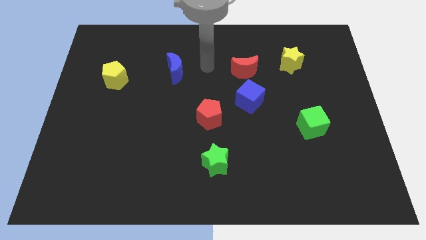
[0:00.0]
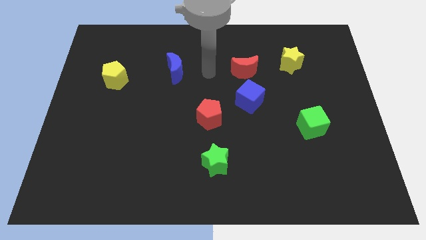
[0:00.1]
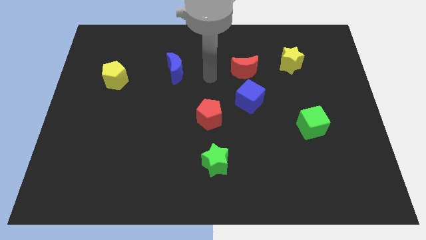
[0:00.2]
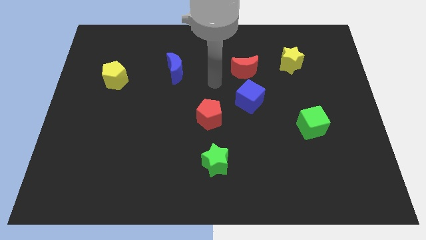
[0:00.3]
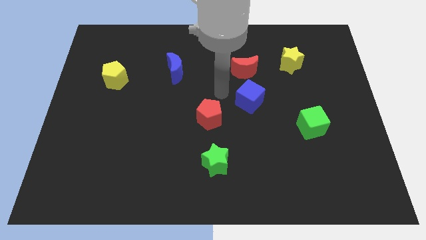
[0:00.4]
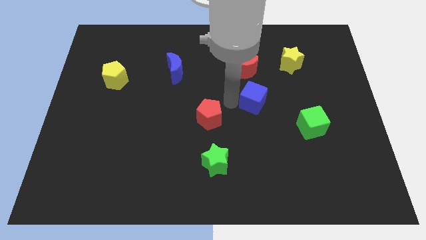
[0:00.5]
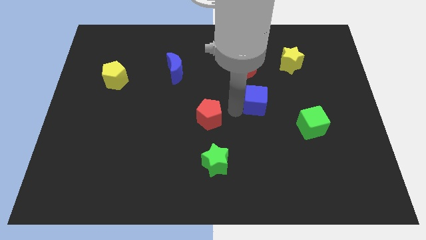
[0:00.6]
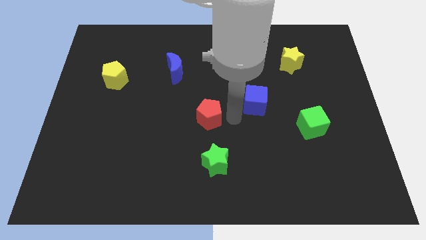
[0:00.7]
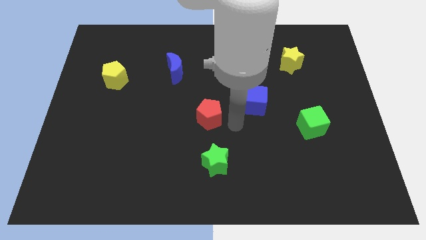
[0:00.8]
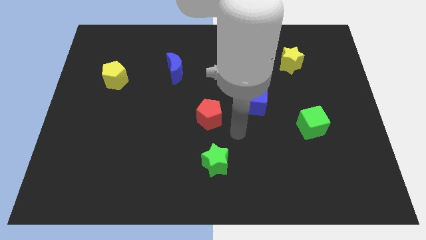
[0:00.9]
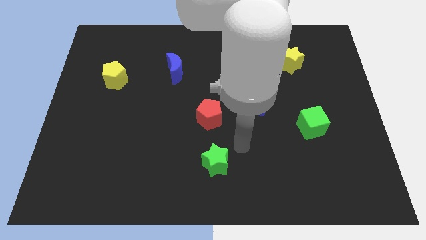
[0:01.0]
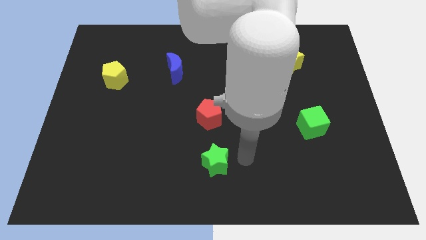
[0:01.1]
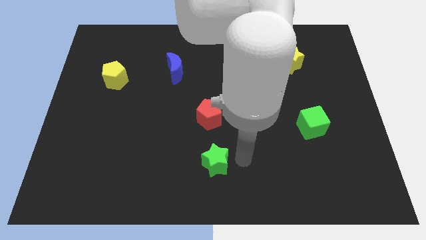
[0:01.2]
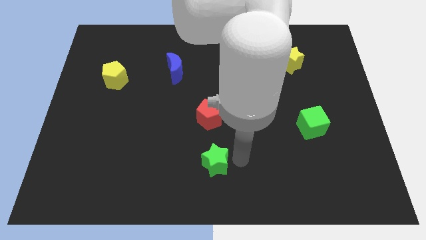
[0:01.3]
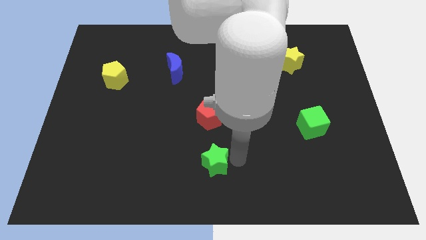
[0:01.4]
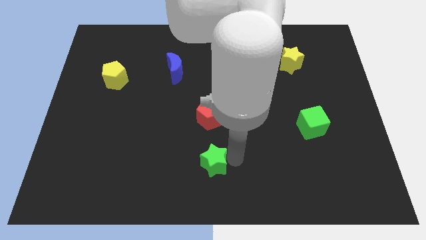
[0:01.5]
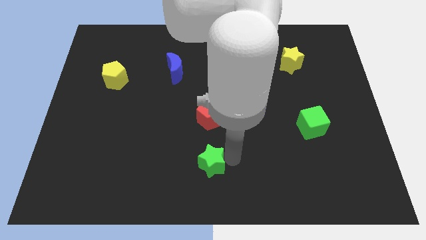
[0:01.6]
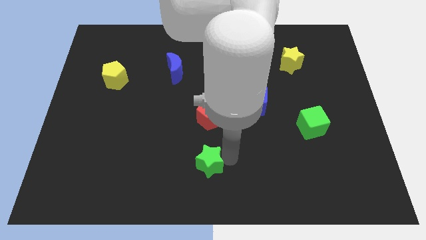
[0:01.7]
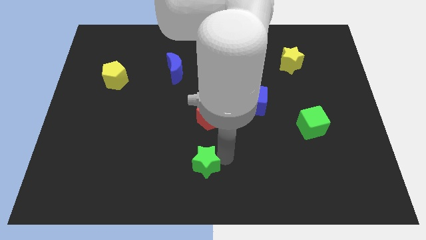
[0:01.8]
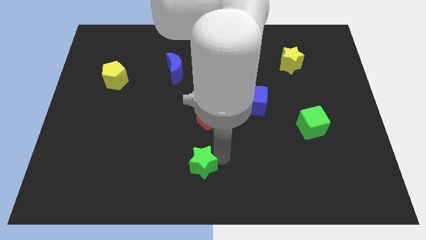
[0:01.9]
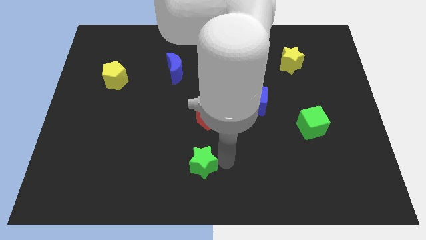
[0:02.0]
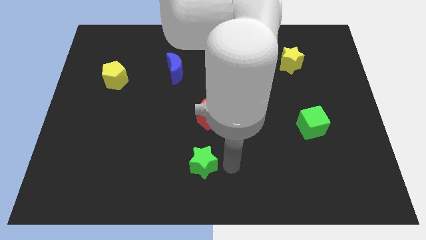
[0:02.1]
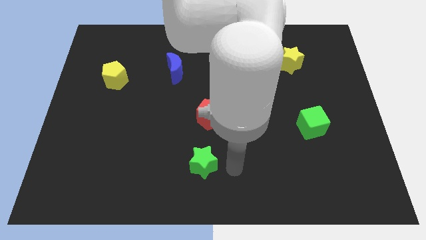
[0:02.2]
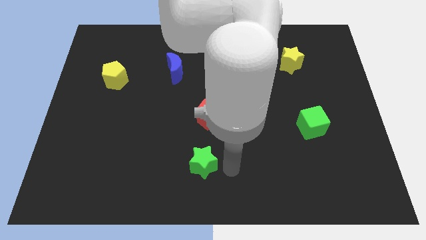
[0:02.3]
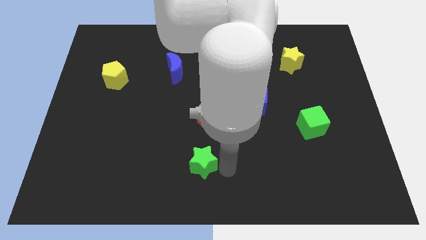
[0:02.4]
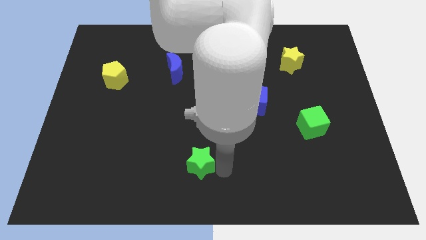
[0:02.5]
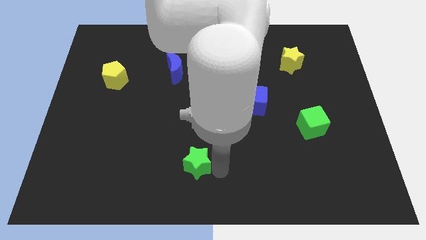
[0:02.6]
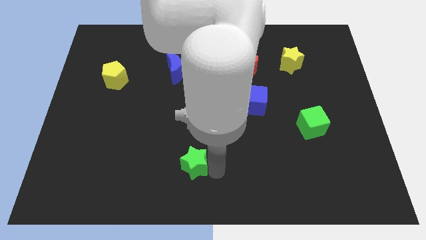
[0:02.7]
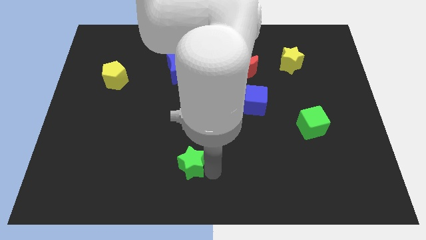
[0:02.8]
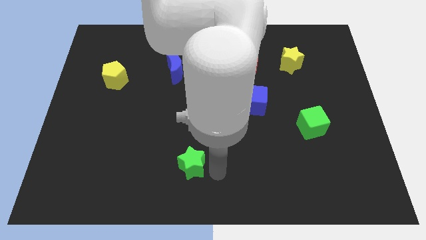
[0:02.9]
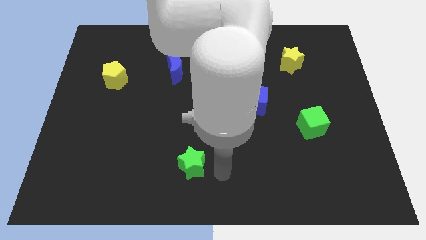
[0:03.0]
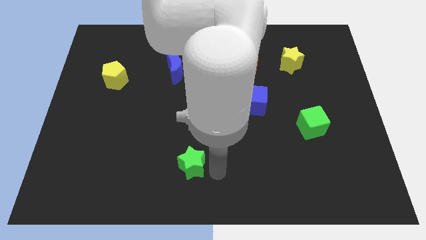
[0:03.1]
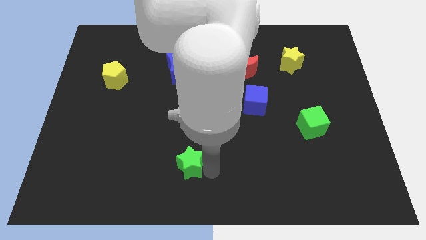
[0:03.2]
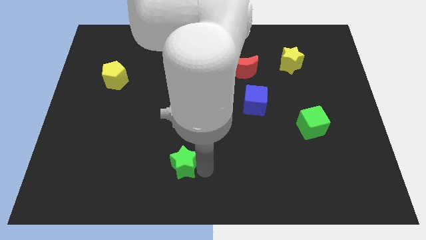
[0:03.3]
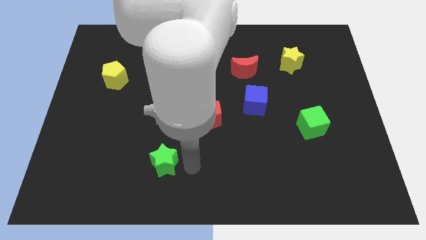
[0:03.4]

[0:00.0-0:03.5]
push the green star to the left somewhat

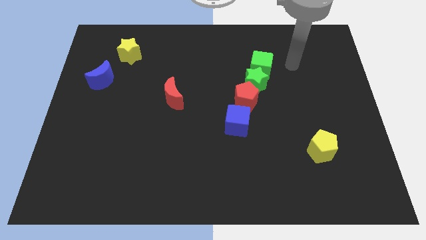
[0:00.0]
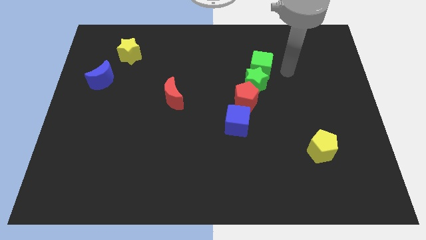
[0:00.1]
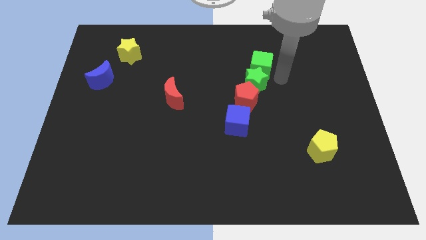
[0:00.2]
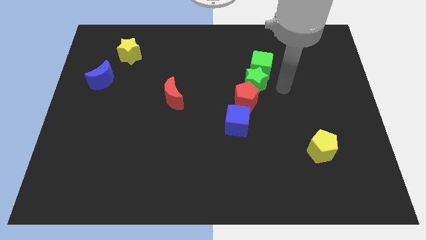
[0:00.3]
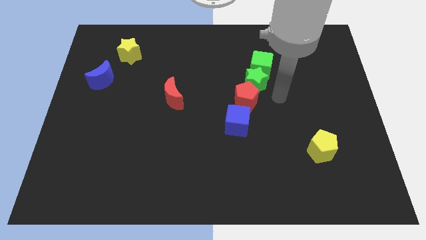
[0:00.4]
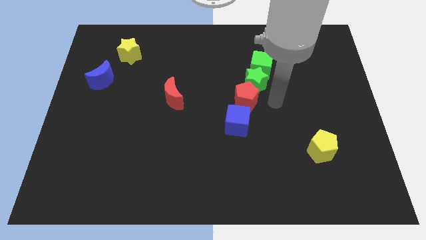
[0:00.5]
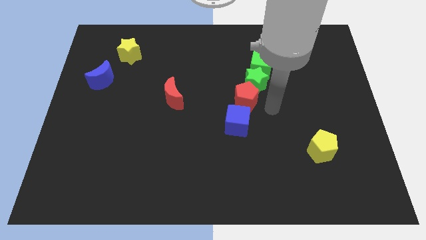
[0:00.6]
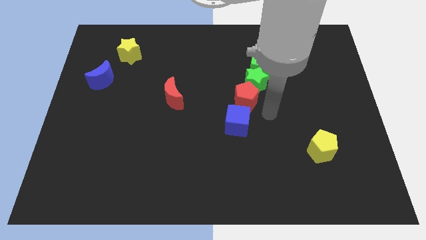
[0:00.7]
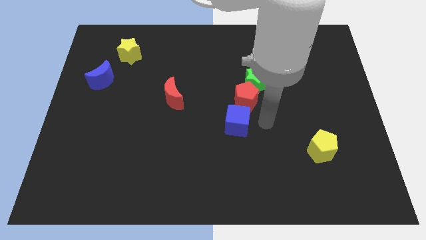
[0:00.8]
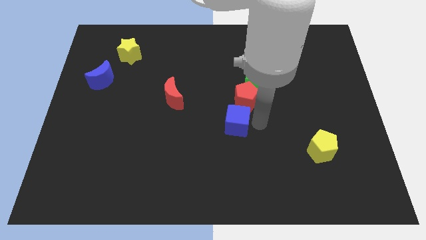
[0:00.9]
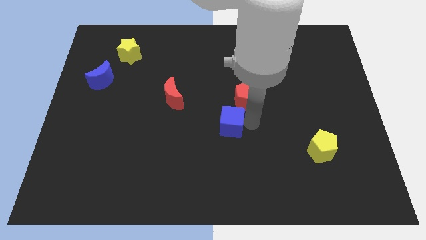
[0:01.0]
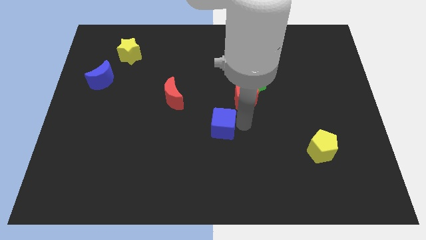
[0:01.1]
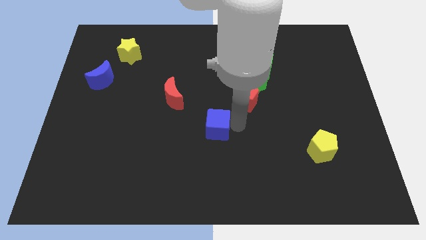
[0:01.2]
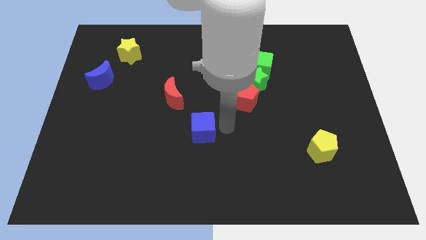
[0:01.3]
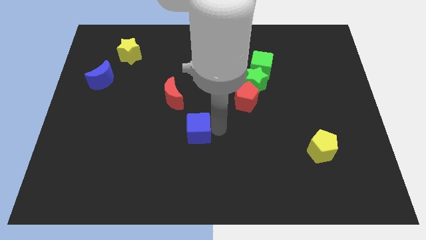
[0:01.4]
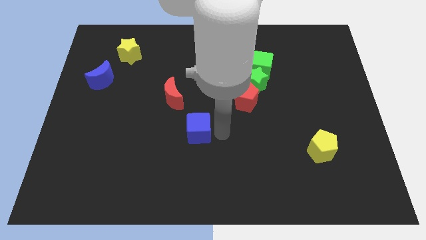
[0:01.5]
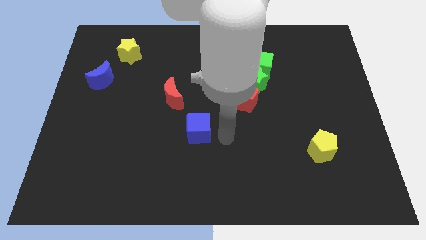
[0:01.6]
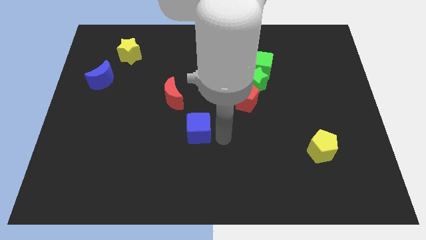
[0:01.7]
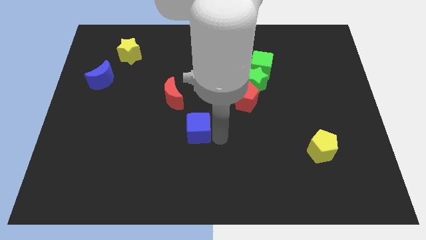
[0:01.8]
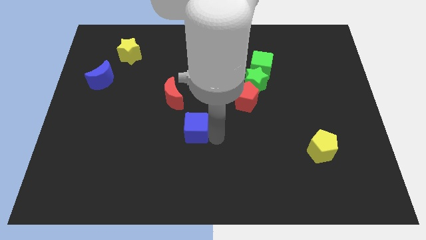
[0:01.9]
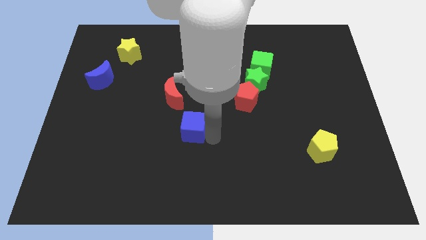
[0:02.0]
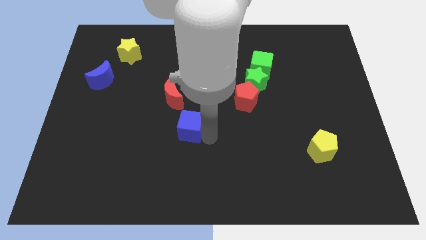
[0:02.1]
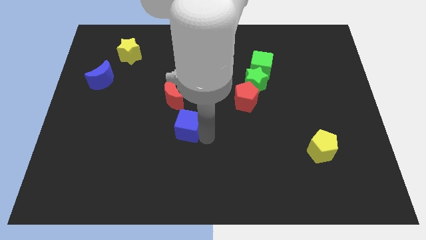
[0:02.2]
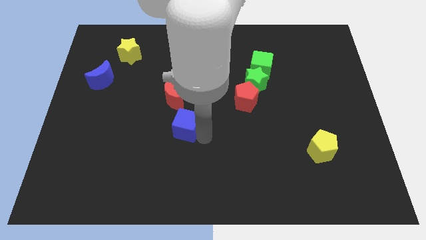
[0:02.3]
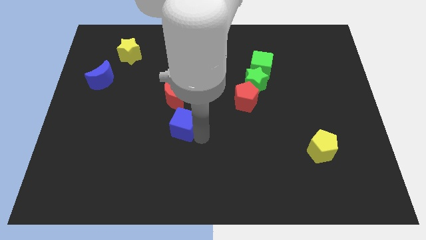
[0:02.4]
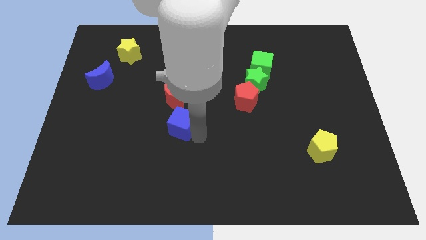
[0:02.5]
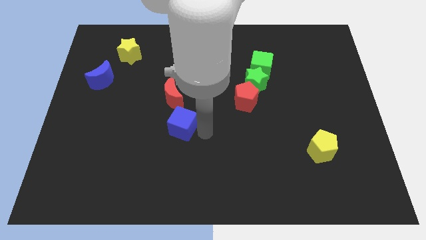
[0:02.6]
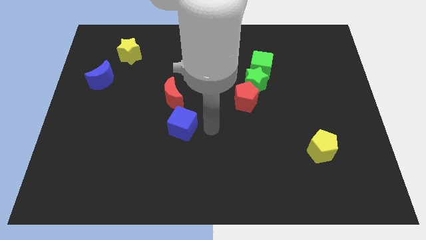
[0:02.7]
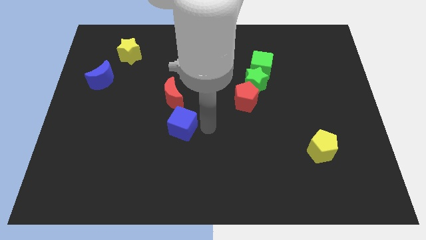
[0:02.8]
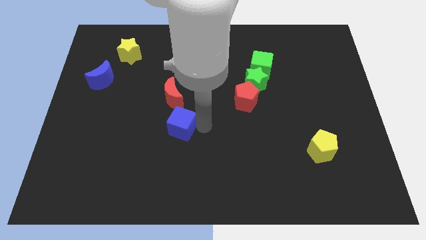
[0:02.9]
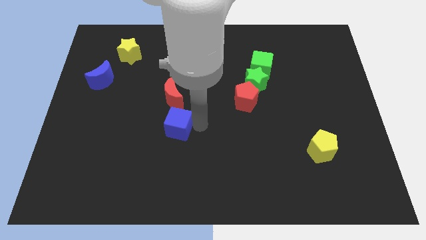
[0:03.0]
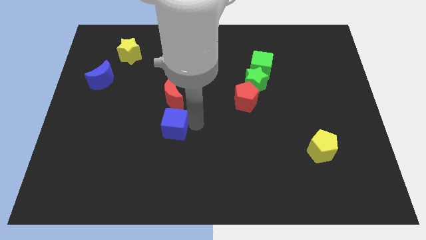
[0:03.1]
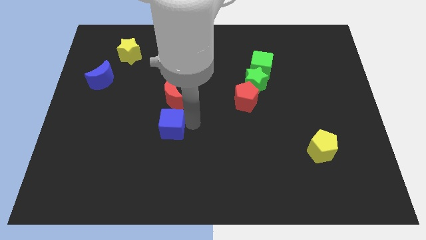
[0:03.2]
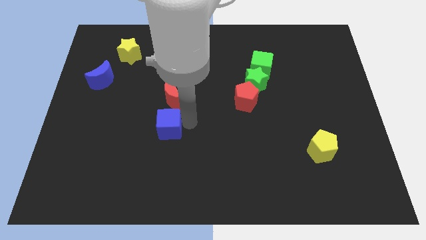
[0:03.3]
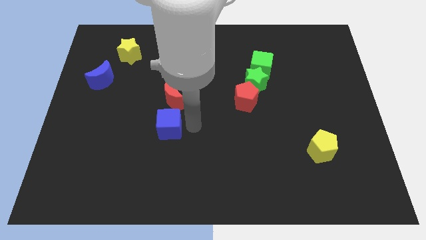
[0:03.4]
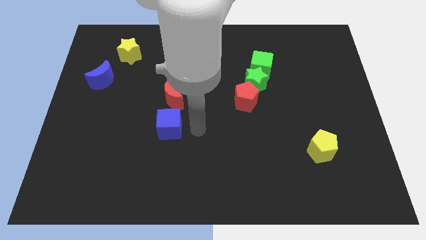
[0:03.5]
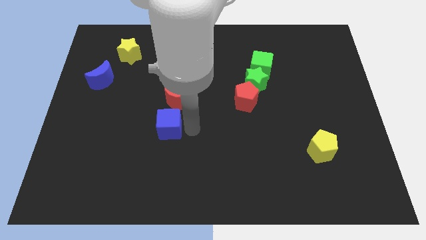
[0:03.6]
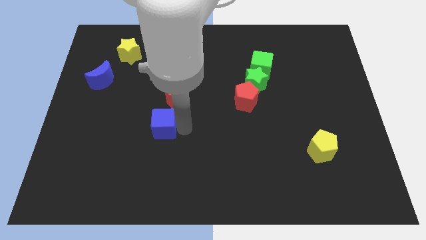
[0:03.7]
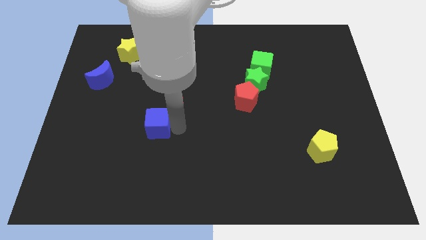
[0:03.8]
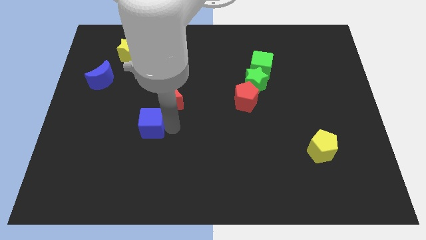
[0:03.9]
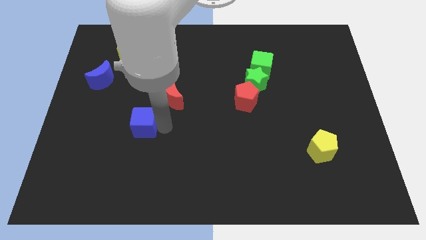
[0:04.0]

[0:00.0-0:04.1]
push the blue cube to the left

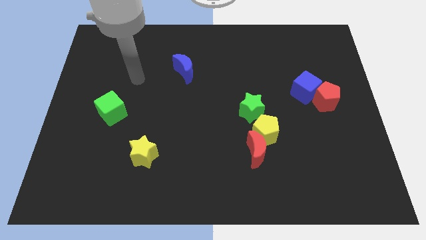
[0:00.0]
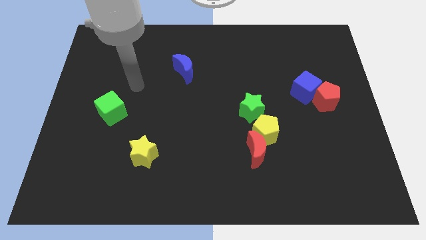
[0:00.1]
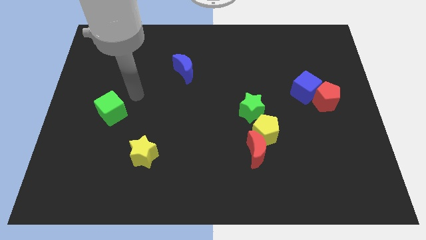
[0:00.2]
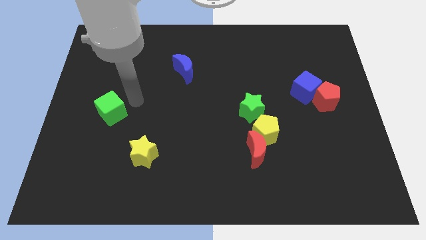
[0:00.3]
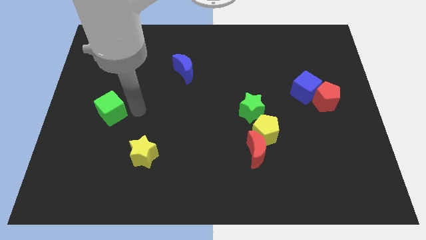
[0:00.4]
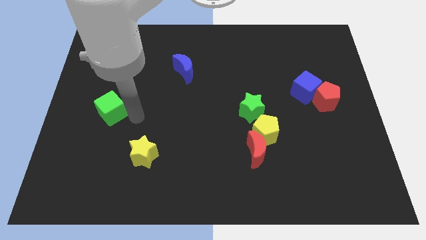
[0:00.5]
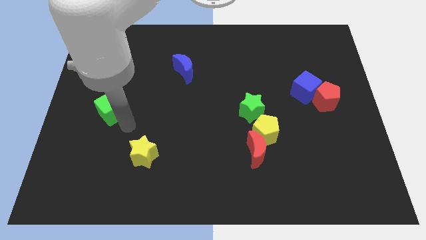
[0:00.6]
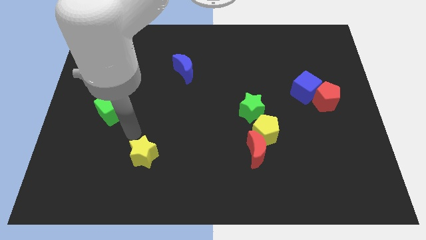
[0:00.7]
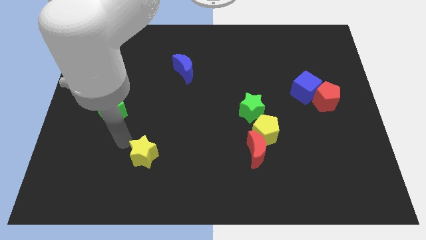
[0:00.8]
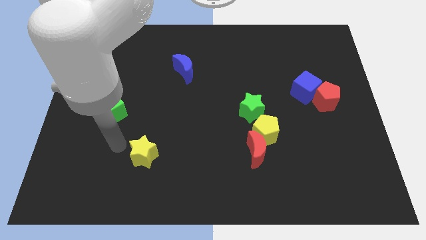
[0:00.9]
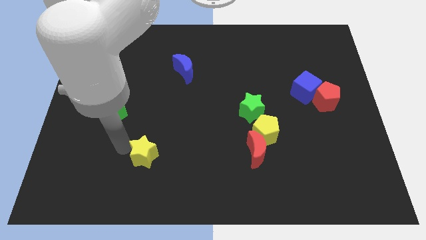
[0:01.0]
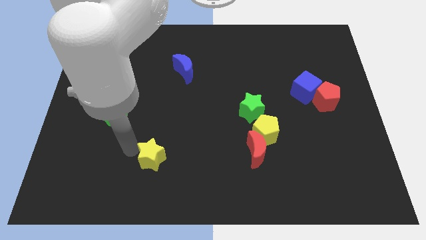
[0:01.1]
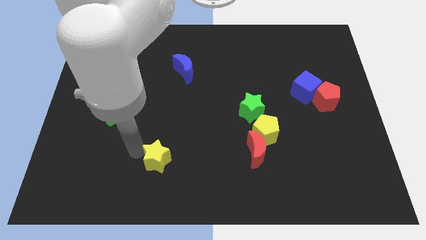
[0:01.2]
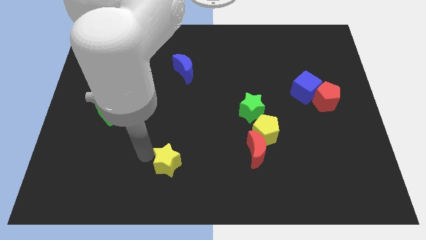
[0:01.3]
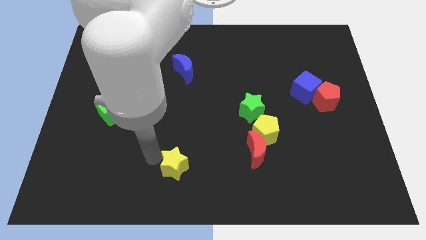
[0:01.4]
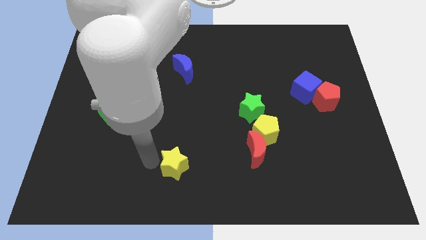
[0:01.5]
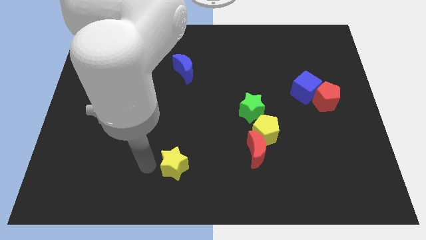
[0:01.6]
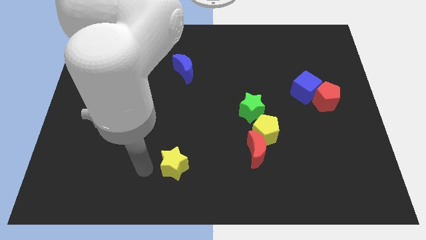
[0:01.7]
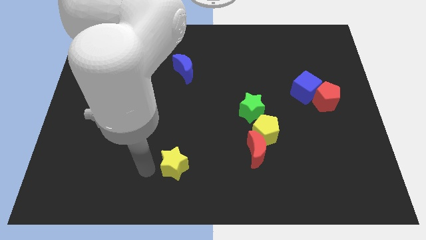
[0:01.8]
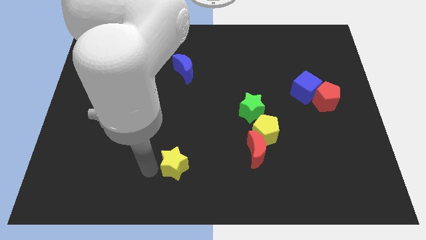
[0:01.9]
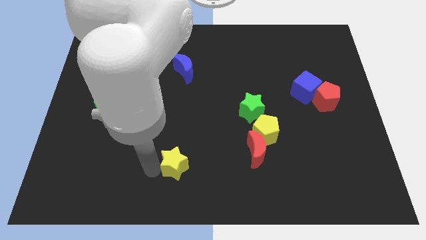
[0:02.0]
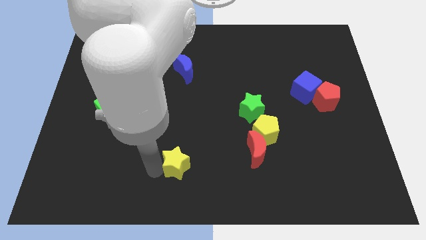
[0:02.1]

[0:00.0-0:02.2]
push the yellow star right a little bit
